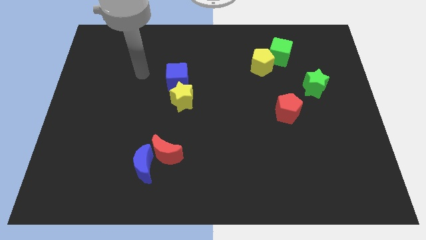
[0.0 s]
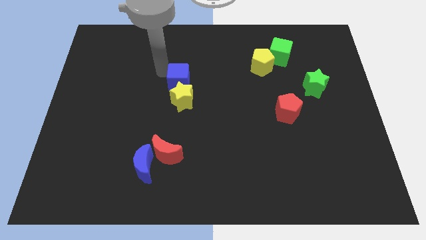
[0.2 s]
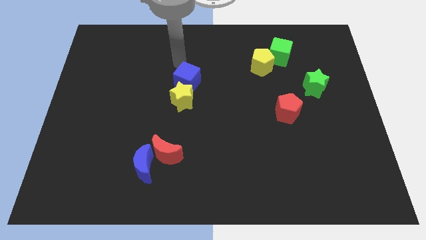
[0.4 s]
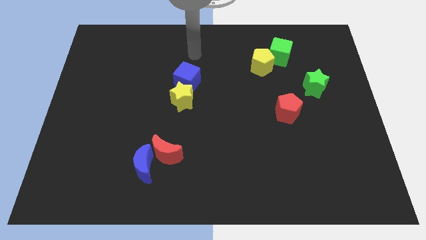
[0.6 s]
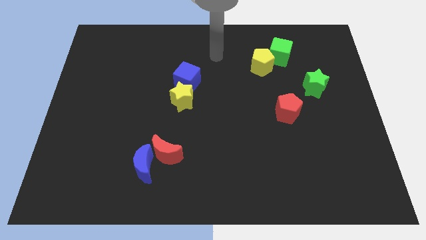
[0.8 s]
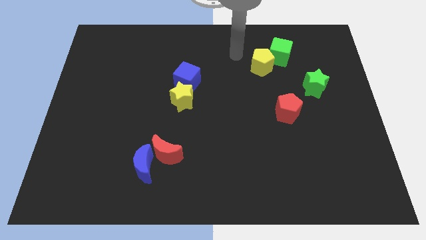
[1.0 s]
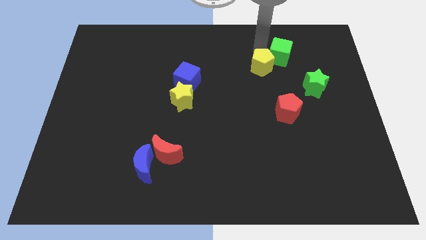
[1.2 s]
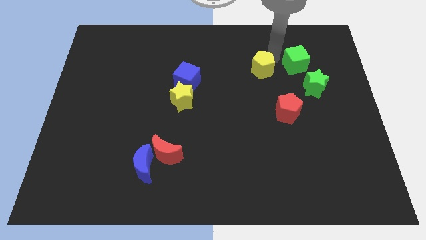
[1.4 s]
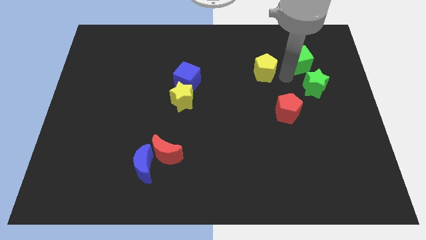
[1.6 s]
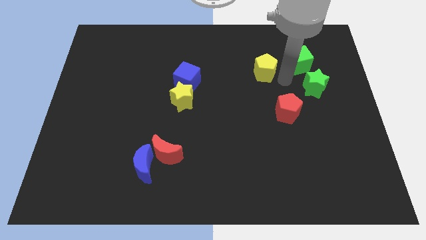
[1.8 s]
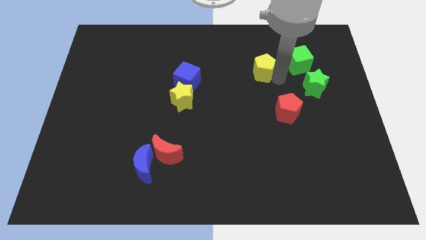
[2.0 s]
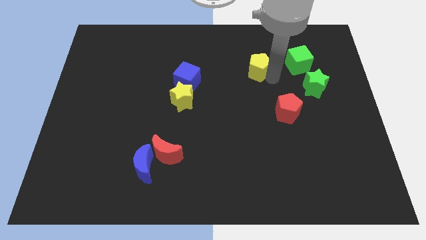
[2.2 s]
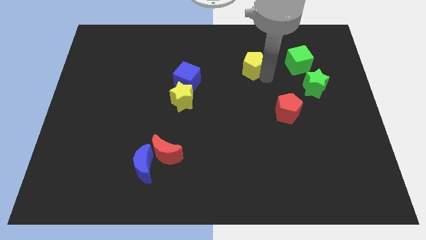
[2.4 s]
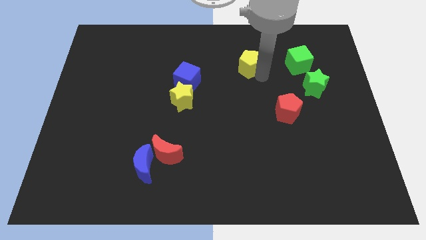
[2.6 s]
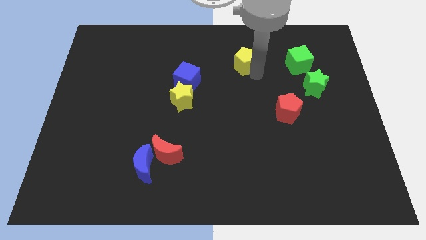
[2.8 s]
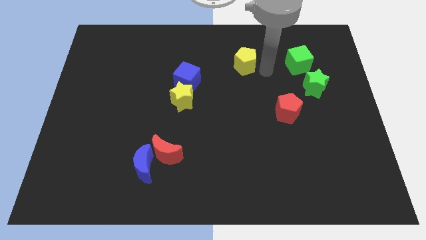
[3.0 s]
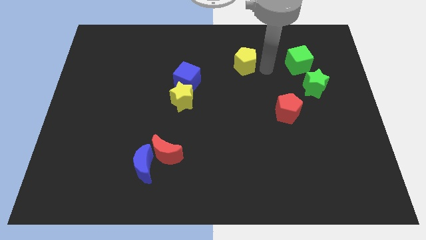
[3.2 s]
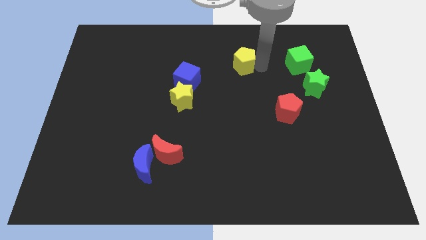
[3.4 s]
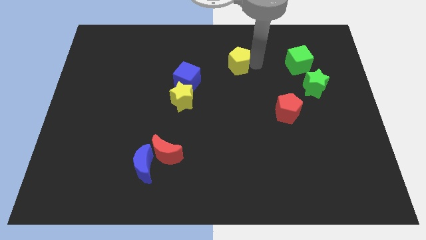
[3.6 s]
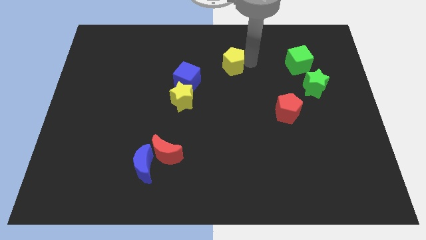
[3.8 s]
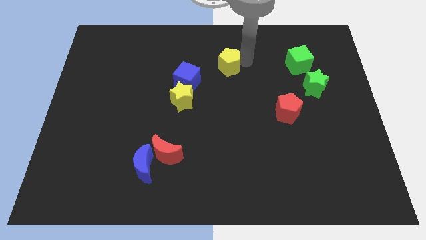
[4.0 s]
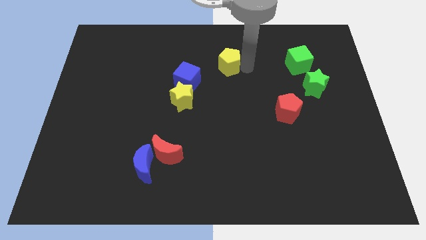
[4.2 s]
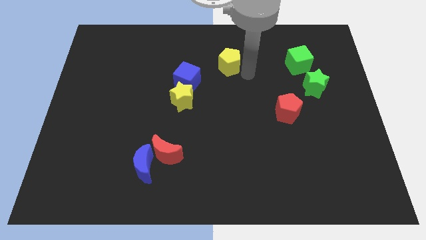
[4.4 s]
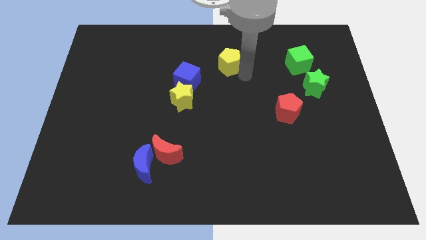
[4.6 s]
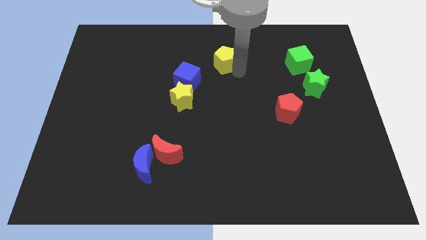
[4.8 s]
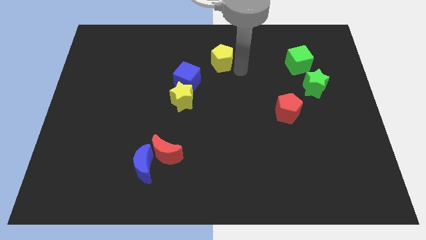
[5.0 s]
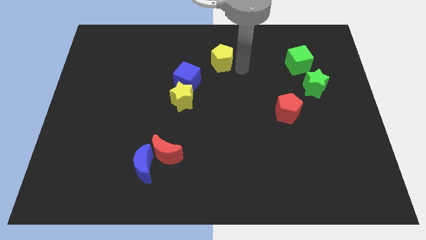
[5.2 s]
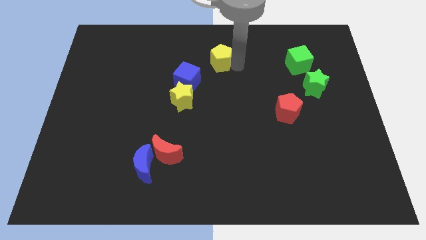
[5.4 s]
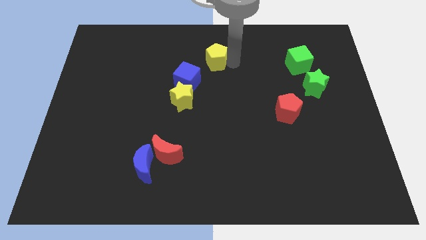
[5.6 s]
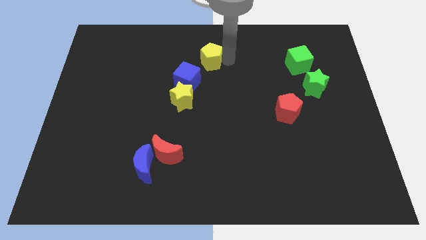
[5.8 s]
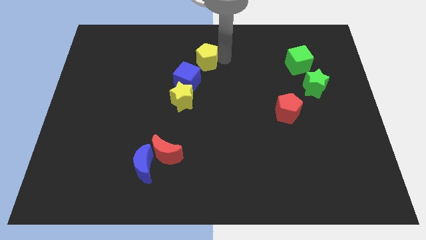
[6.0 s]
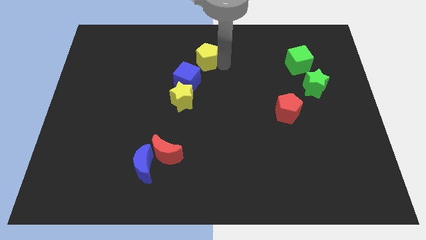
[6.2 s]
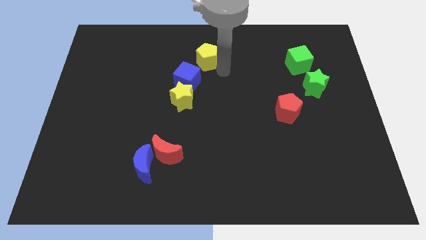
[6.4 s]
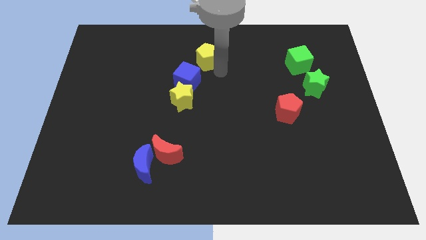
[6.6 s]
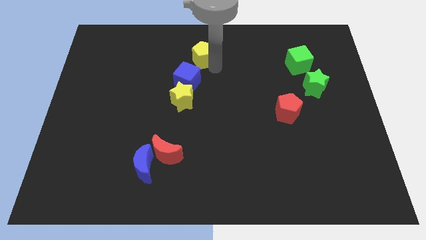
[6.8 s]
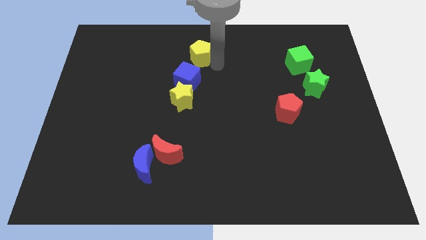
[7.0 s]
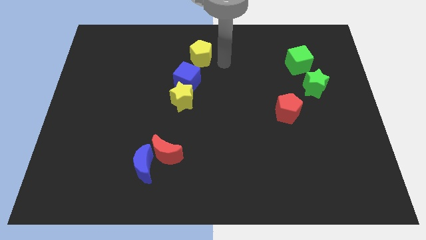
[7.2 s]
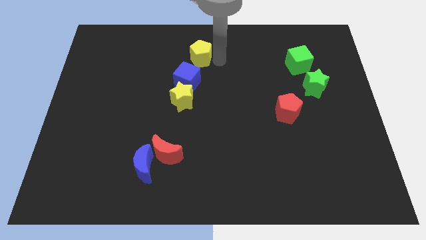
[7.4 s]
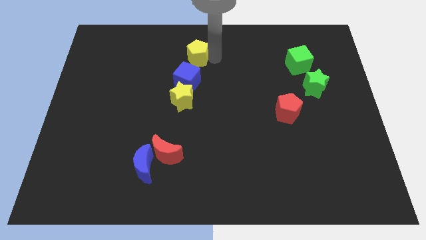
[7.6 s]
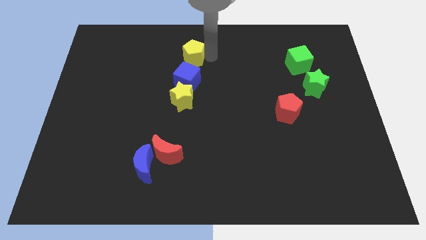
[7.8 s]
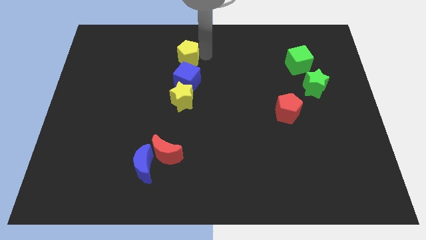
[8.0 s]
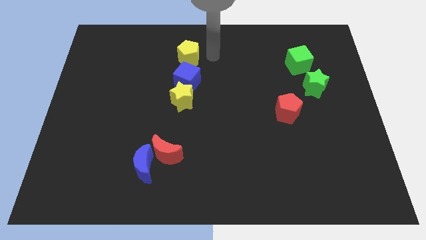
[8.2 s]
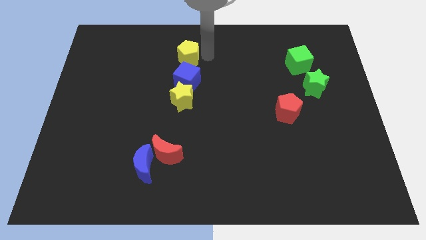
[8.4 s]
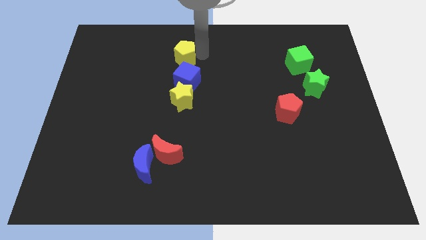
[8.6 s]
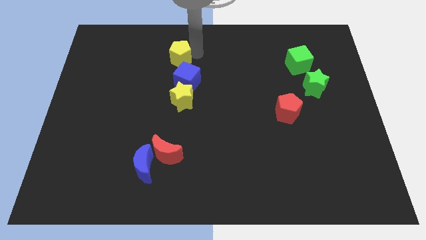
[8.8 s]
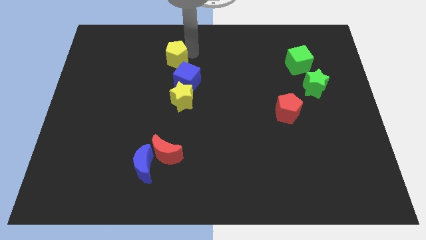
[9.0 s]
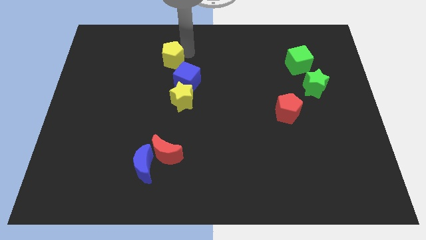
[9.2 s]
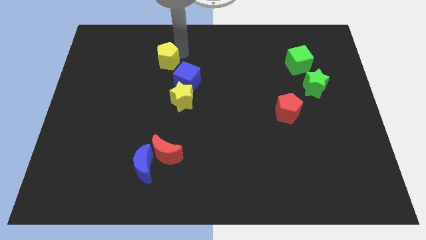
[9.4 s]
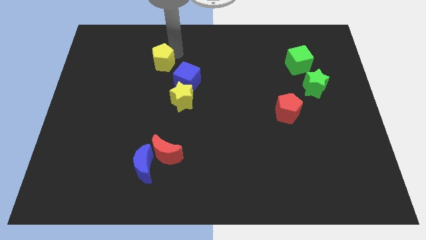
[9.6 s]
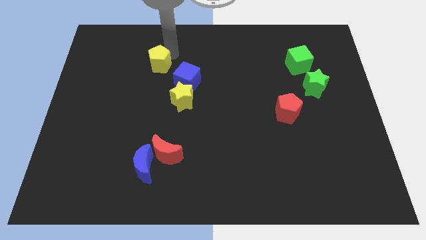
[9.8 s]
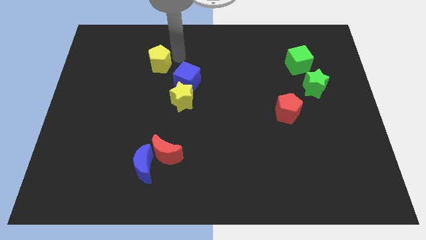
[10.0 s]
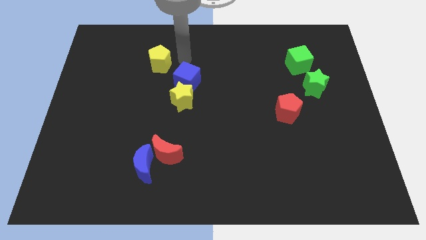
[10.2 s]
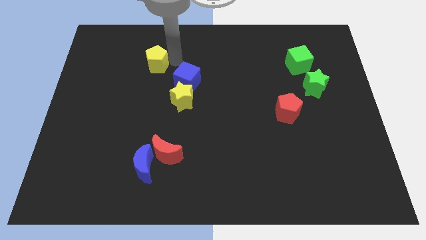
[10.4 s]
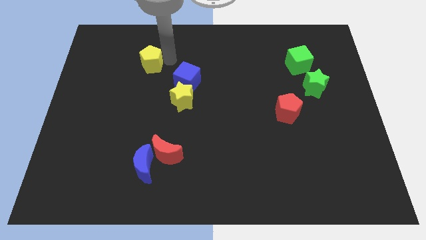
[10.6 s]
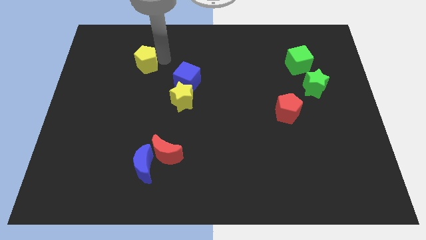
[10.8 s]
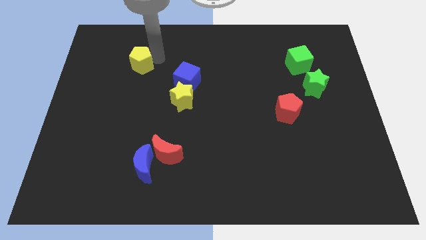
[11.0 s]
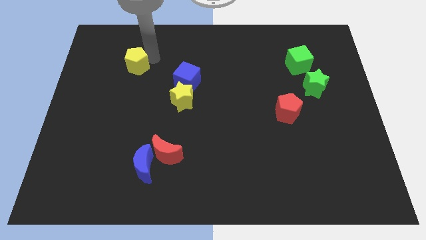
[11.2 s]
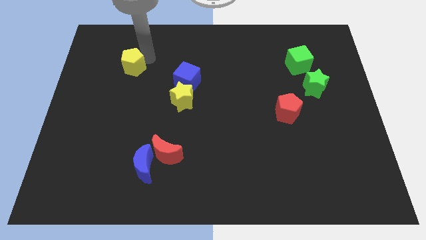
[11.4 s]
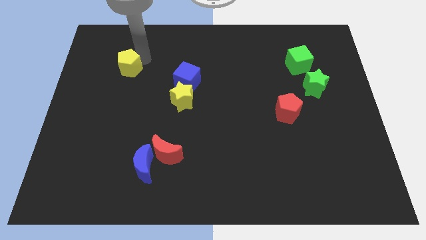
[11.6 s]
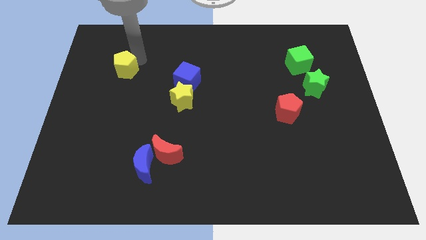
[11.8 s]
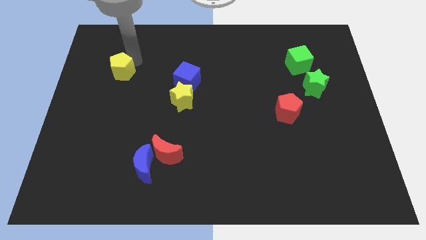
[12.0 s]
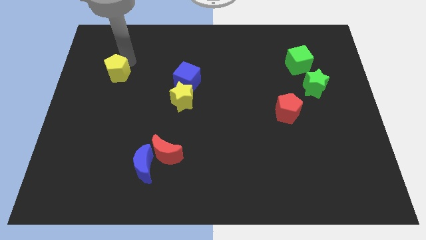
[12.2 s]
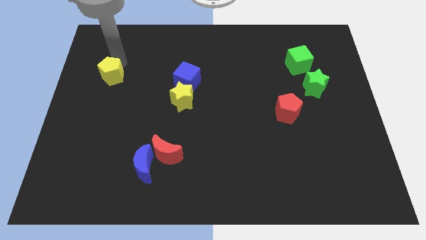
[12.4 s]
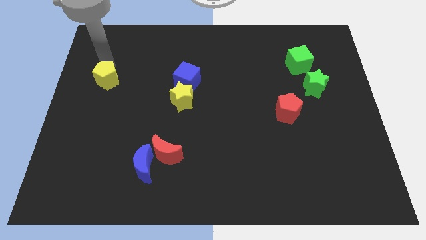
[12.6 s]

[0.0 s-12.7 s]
put the yellow pentagon to the left side of the board

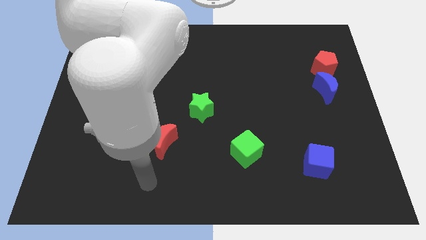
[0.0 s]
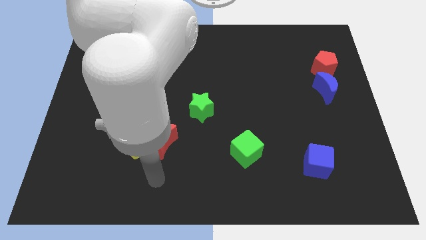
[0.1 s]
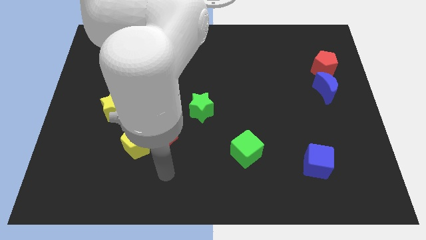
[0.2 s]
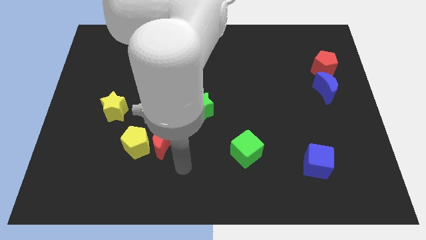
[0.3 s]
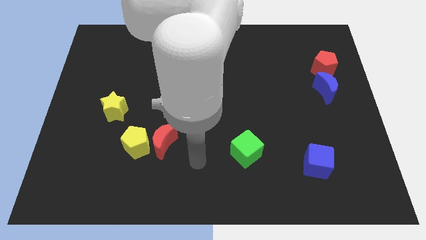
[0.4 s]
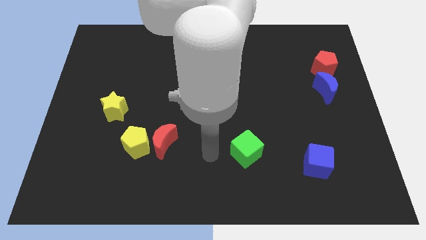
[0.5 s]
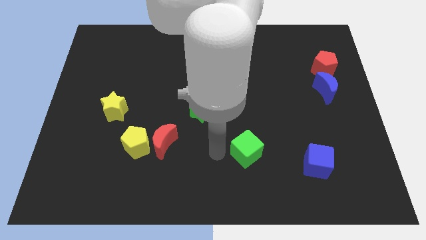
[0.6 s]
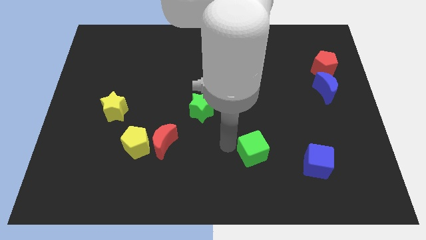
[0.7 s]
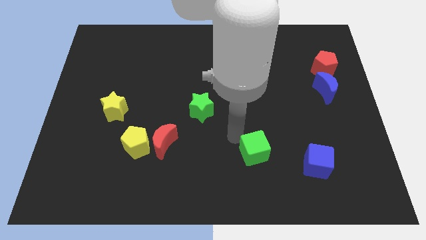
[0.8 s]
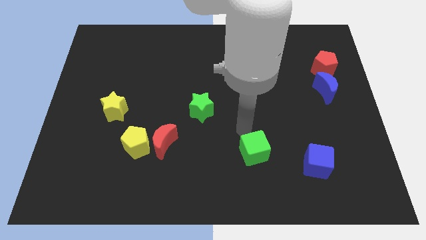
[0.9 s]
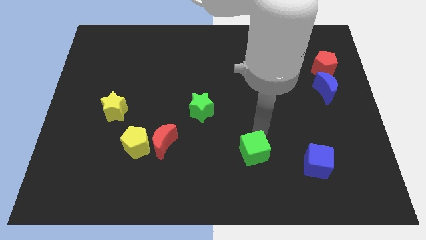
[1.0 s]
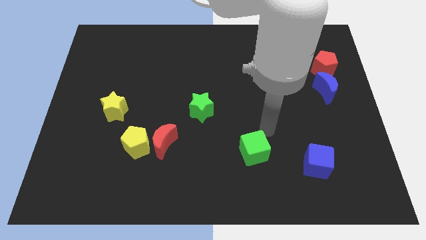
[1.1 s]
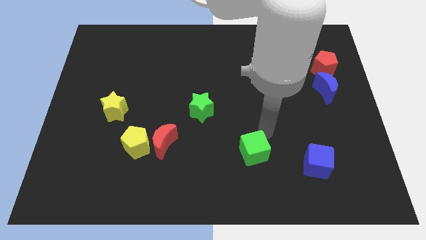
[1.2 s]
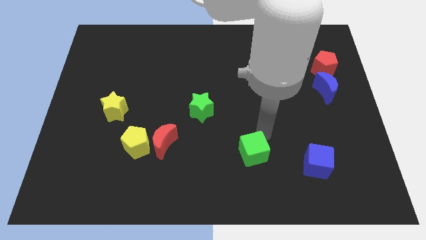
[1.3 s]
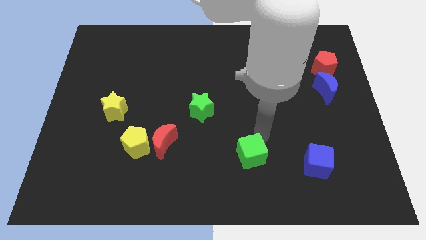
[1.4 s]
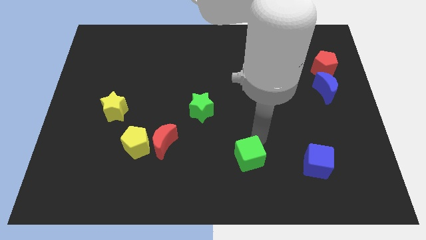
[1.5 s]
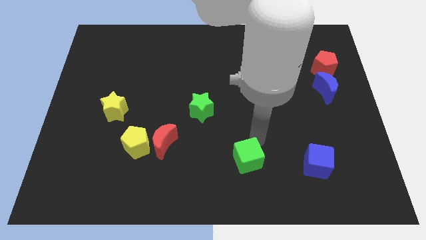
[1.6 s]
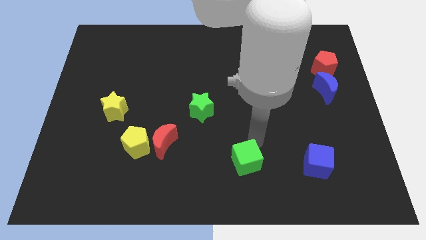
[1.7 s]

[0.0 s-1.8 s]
push the green cube to the bottom
